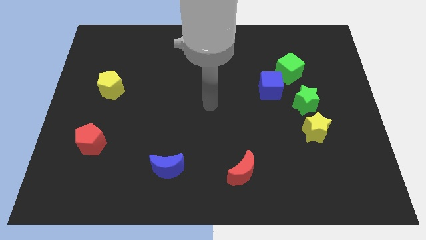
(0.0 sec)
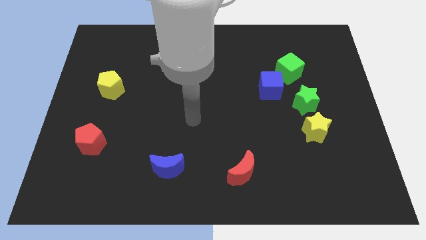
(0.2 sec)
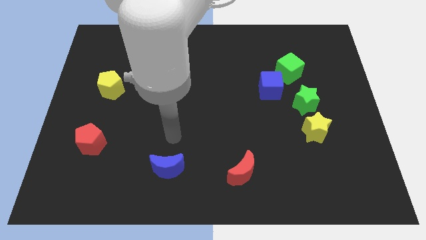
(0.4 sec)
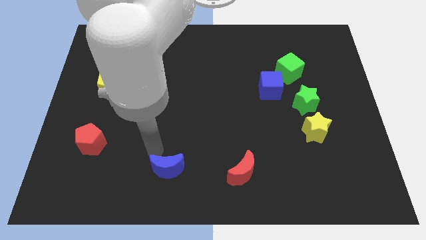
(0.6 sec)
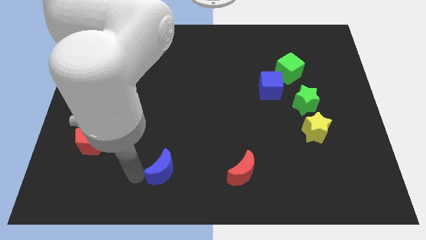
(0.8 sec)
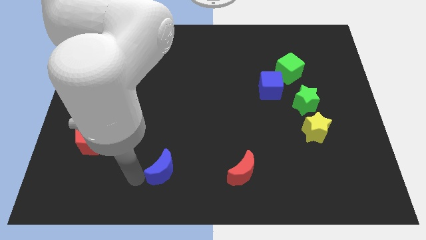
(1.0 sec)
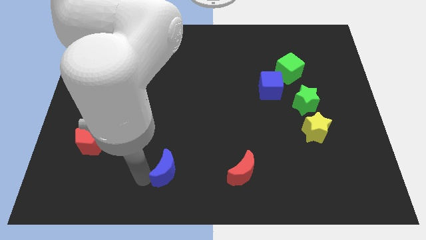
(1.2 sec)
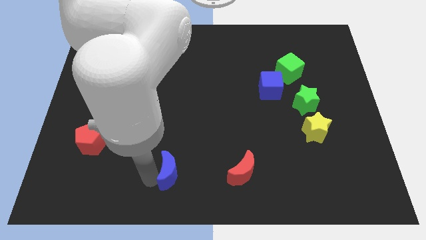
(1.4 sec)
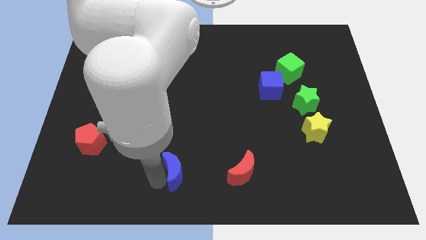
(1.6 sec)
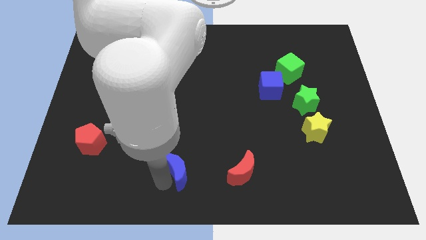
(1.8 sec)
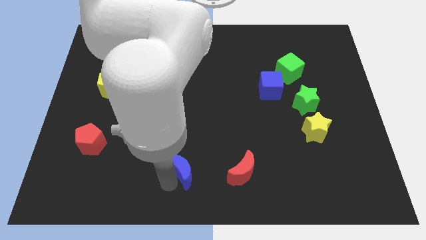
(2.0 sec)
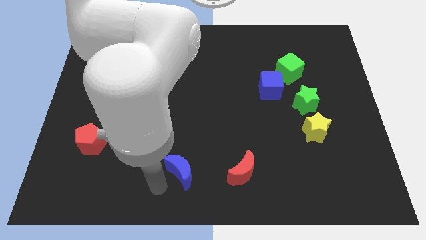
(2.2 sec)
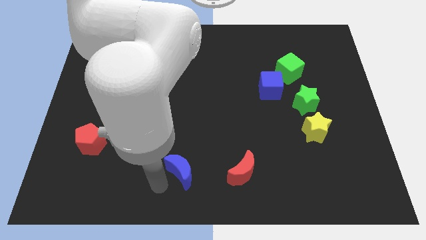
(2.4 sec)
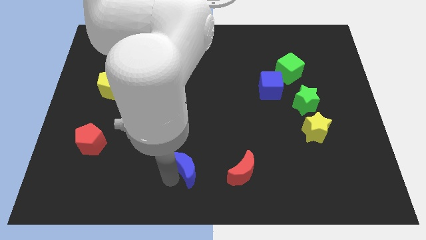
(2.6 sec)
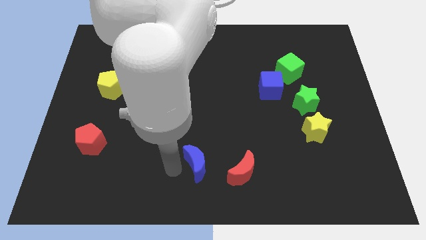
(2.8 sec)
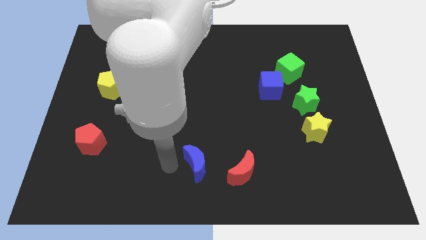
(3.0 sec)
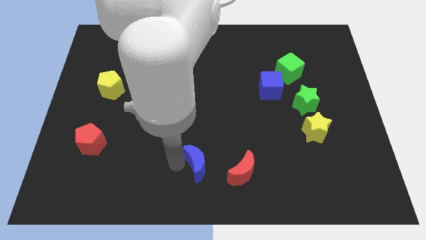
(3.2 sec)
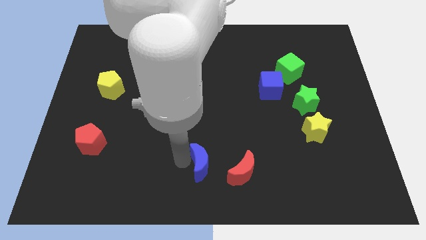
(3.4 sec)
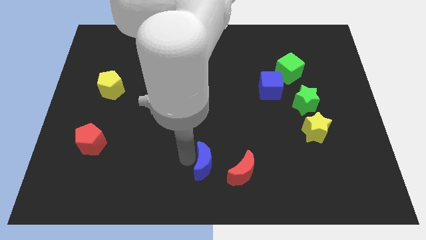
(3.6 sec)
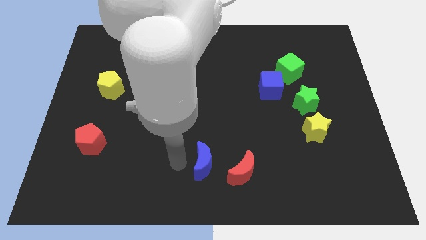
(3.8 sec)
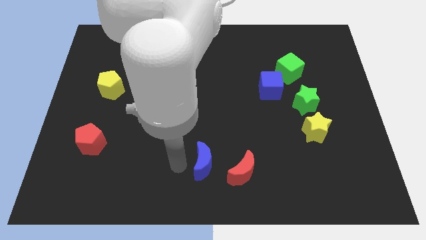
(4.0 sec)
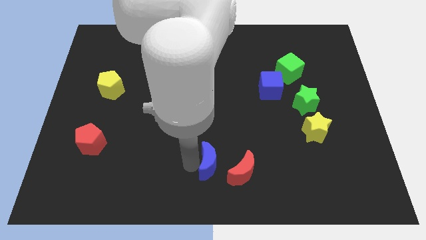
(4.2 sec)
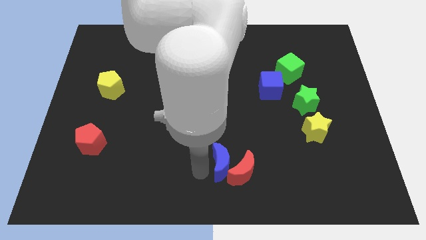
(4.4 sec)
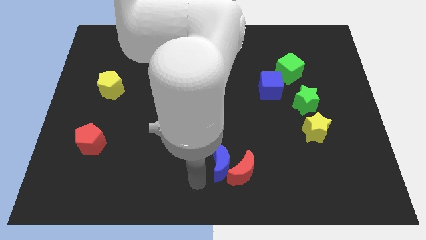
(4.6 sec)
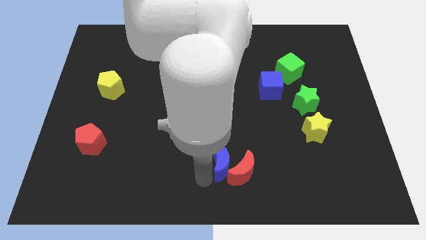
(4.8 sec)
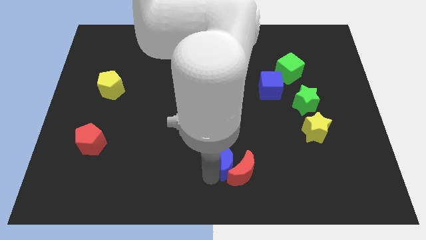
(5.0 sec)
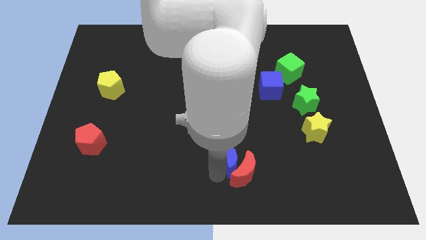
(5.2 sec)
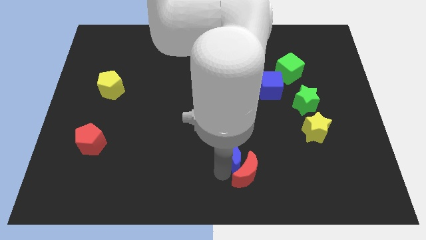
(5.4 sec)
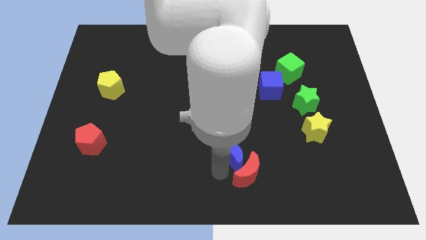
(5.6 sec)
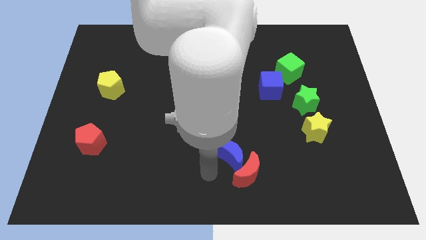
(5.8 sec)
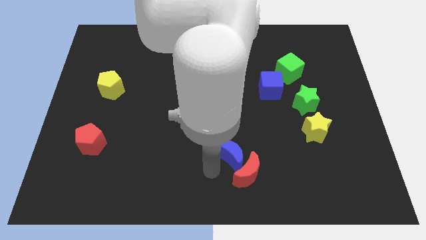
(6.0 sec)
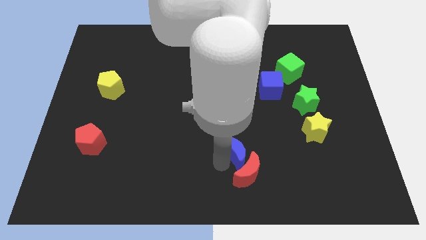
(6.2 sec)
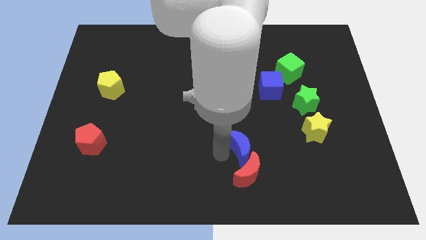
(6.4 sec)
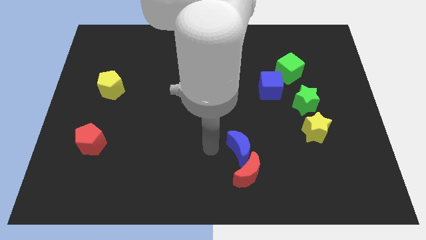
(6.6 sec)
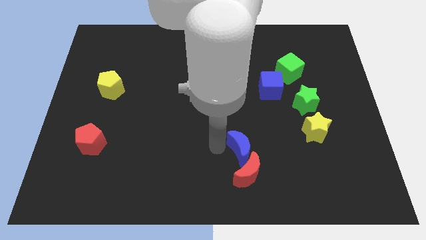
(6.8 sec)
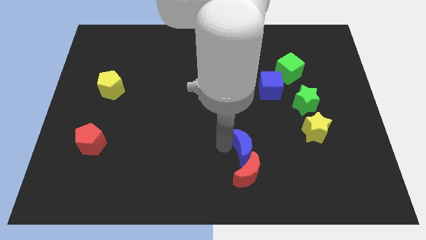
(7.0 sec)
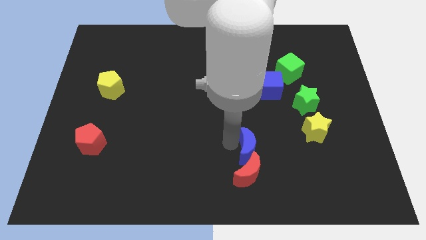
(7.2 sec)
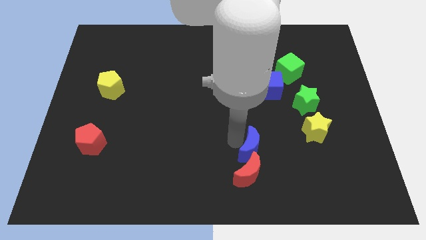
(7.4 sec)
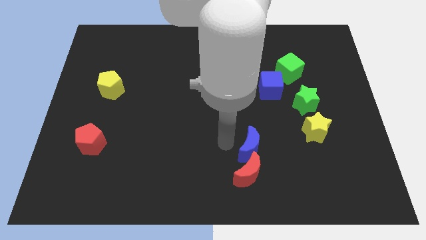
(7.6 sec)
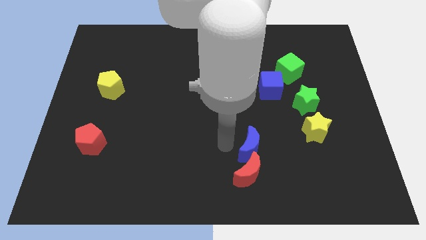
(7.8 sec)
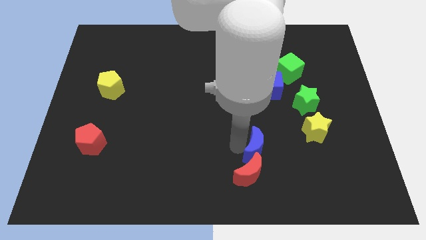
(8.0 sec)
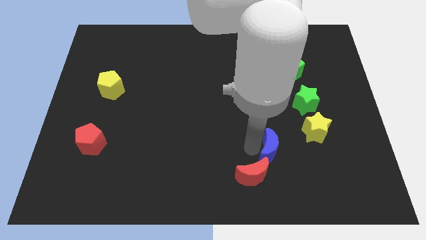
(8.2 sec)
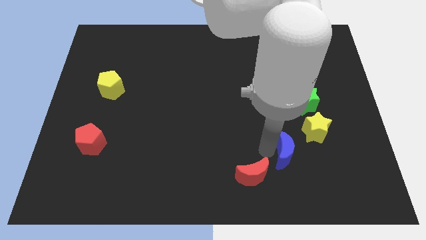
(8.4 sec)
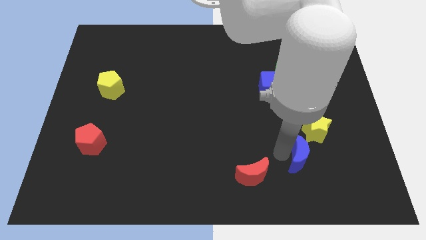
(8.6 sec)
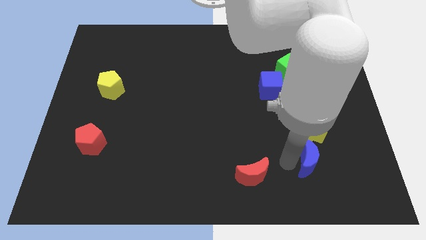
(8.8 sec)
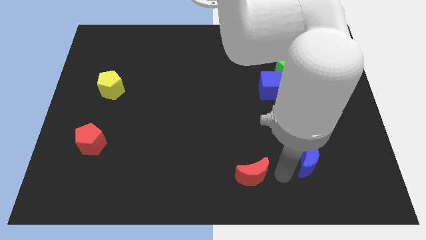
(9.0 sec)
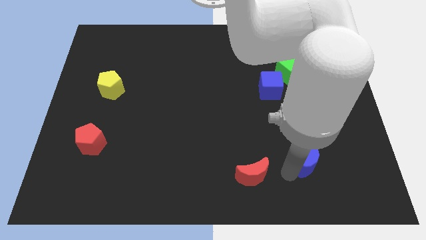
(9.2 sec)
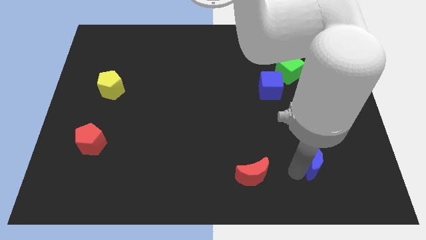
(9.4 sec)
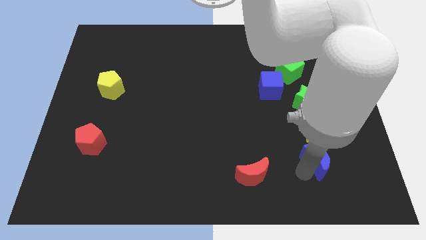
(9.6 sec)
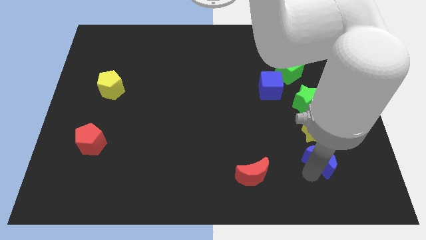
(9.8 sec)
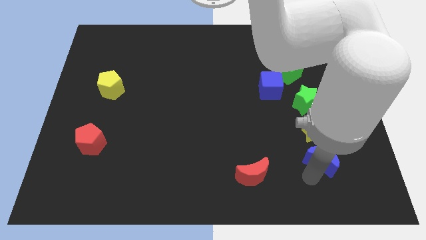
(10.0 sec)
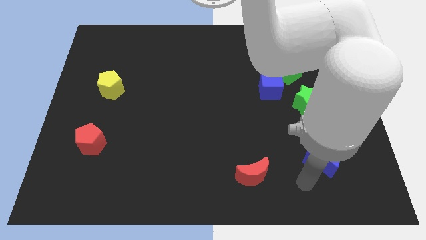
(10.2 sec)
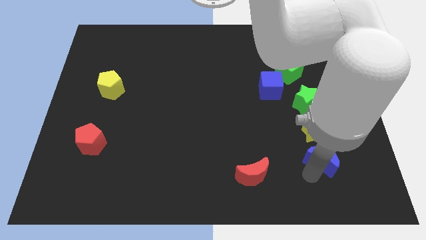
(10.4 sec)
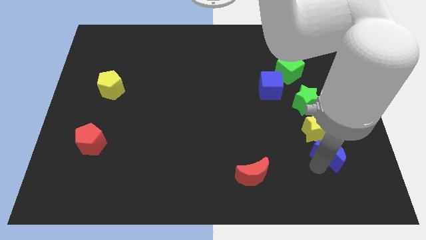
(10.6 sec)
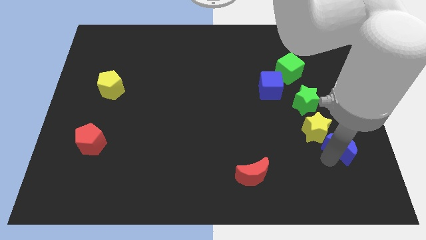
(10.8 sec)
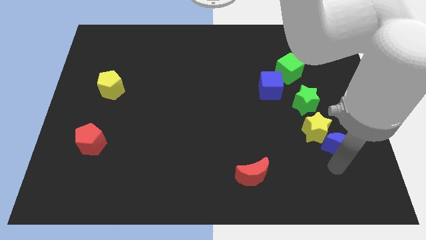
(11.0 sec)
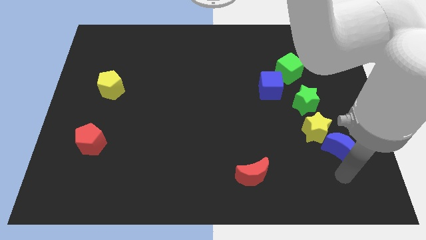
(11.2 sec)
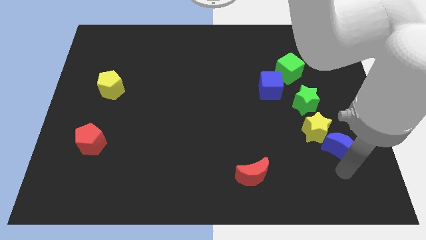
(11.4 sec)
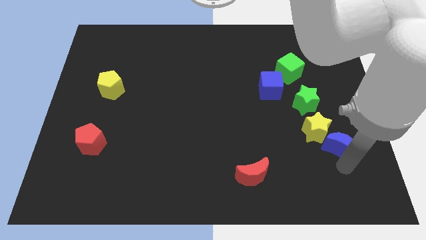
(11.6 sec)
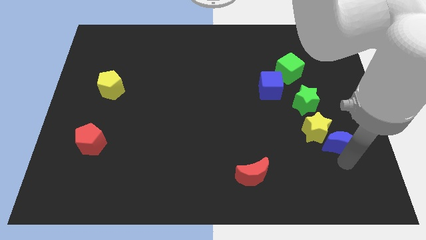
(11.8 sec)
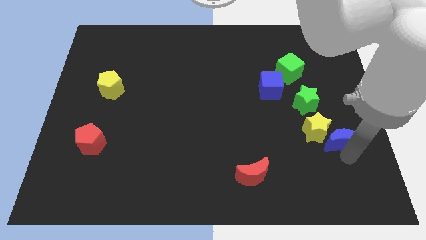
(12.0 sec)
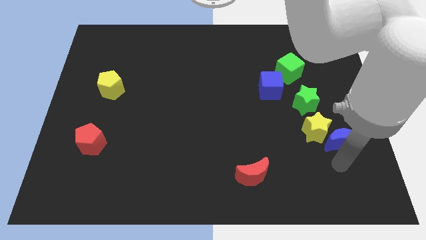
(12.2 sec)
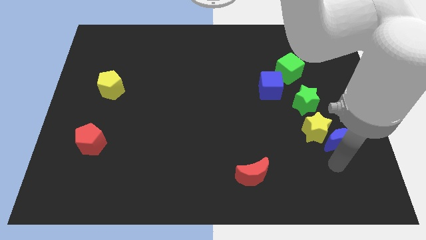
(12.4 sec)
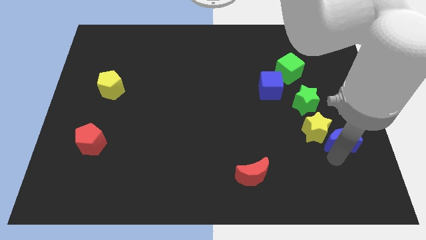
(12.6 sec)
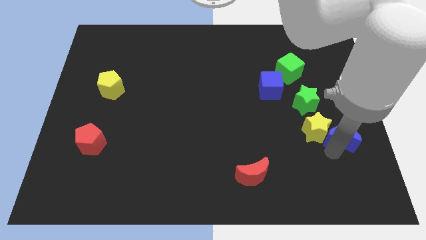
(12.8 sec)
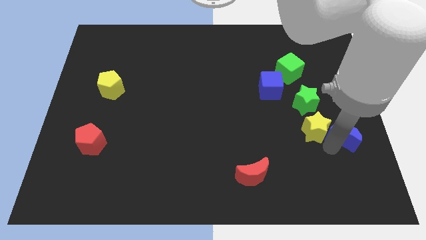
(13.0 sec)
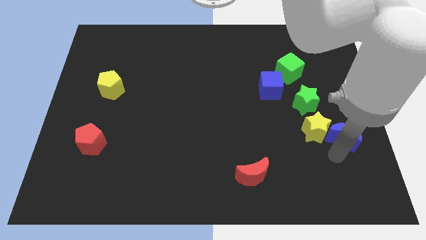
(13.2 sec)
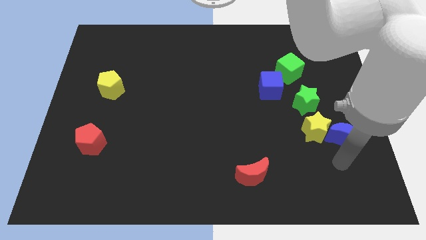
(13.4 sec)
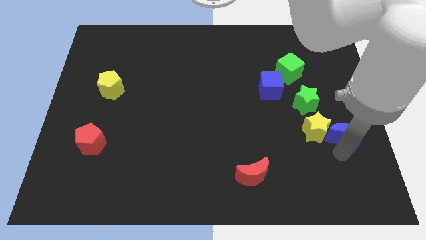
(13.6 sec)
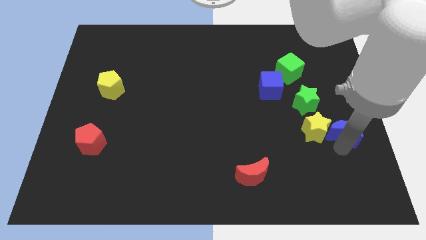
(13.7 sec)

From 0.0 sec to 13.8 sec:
put the blue moon to the right side of the board
